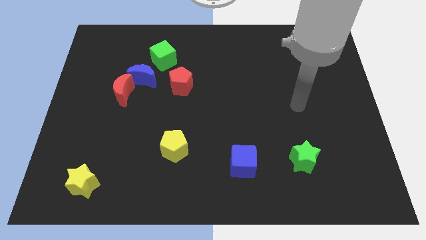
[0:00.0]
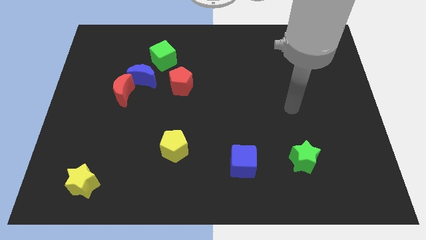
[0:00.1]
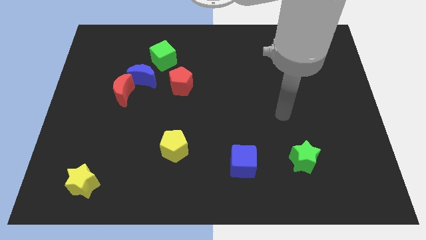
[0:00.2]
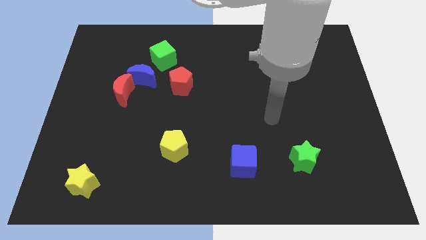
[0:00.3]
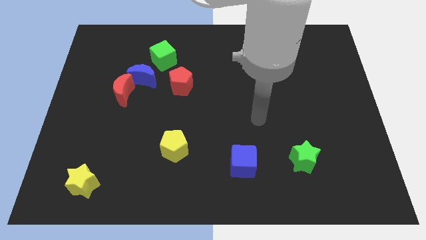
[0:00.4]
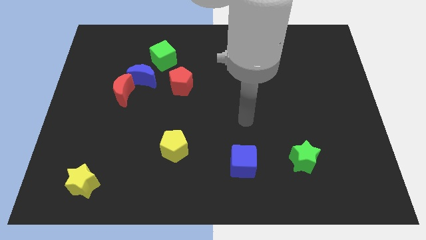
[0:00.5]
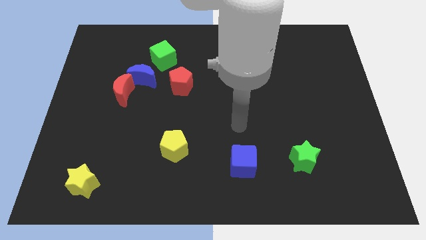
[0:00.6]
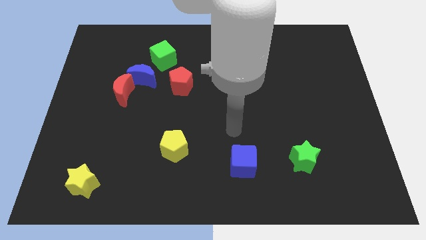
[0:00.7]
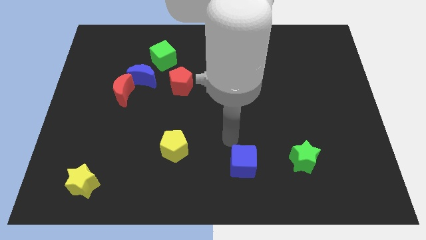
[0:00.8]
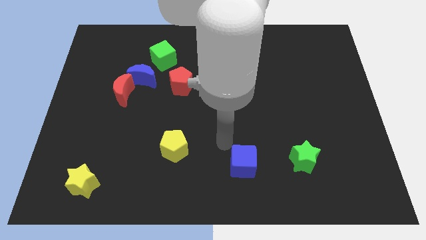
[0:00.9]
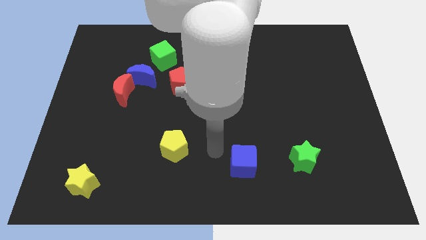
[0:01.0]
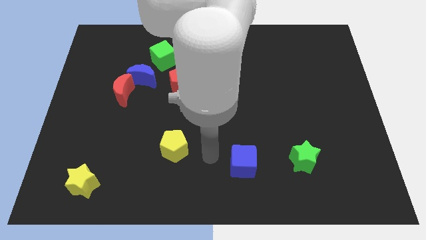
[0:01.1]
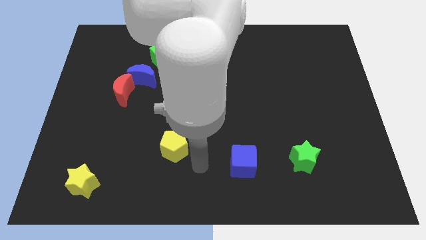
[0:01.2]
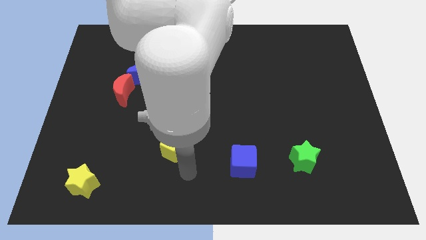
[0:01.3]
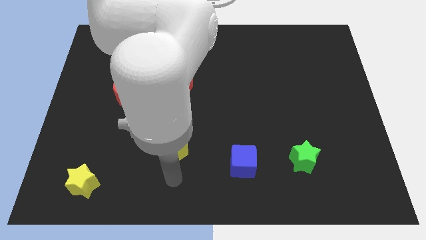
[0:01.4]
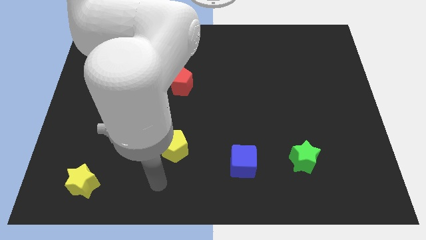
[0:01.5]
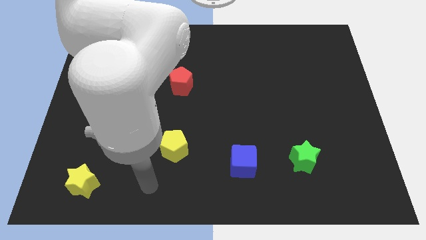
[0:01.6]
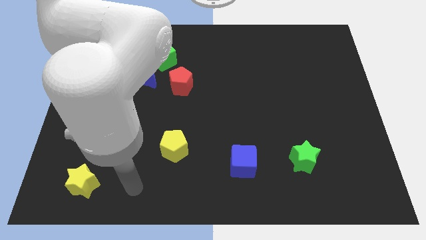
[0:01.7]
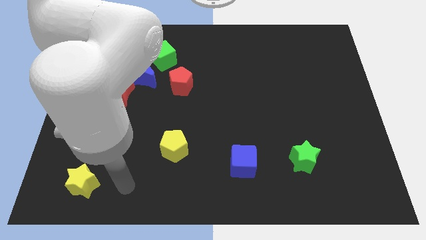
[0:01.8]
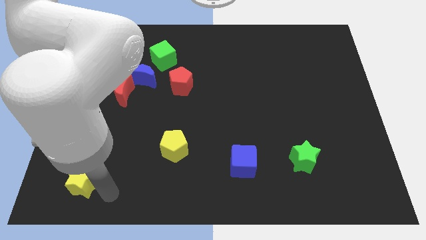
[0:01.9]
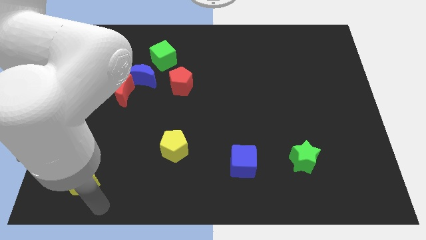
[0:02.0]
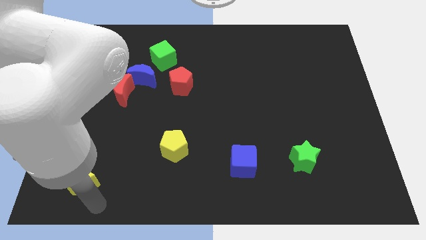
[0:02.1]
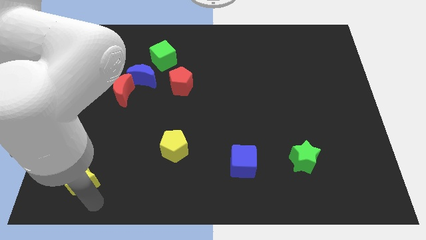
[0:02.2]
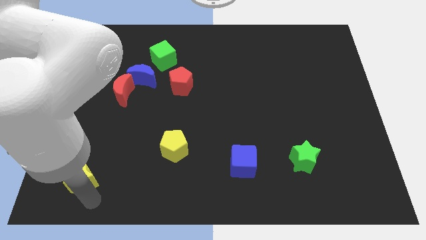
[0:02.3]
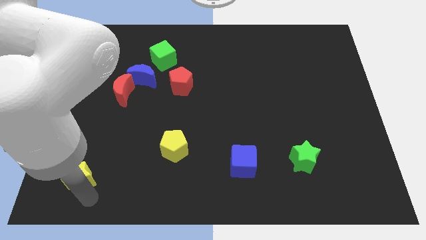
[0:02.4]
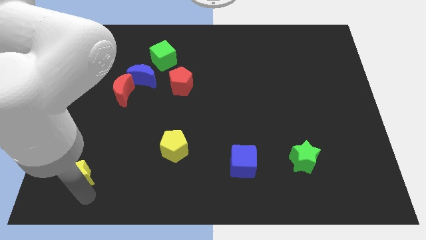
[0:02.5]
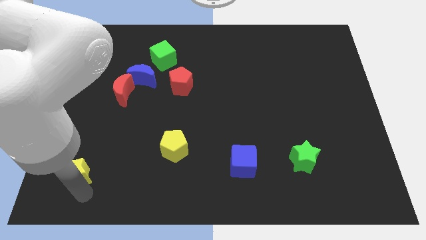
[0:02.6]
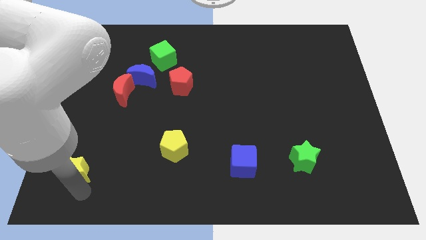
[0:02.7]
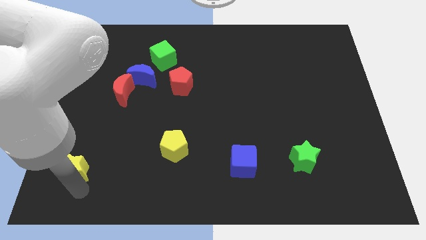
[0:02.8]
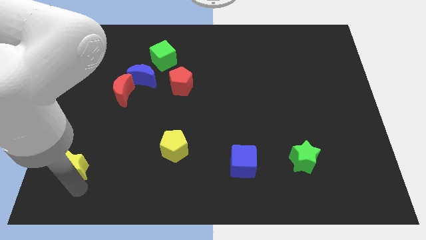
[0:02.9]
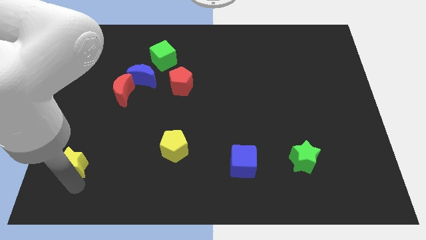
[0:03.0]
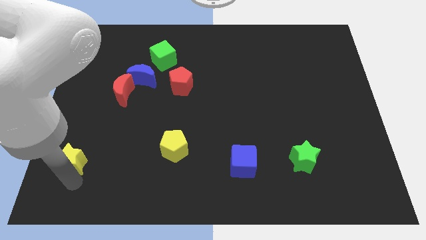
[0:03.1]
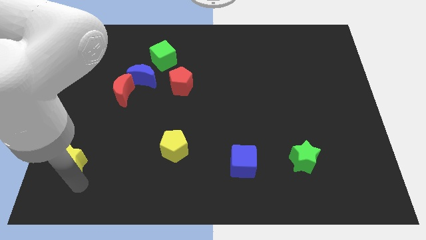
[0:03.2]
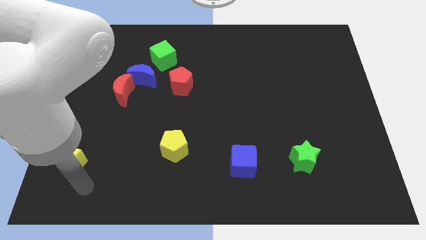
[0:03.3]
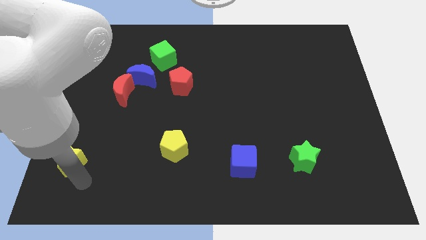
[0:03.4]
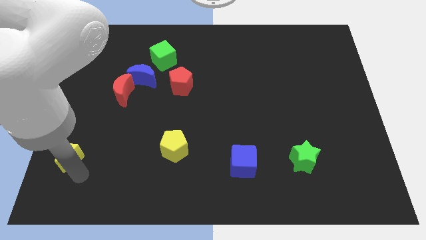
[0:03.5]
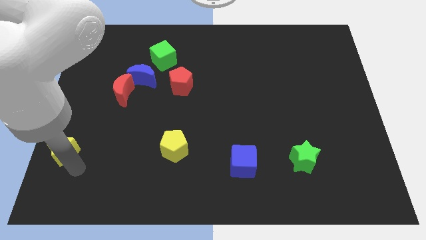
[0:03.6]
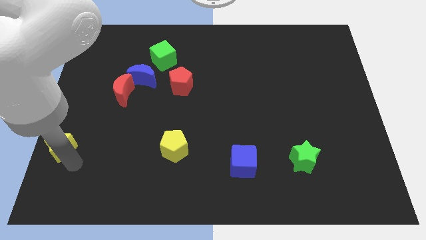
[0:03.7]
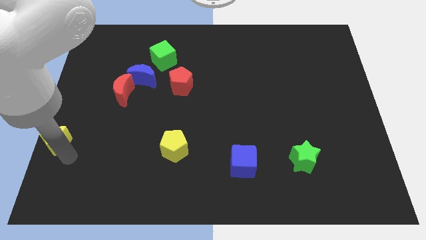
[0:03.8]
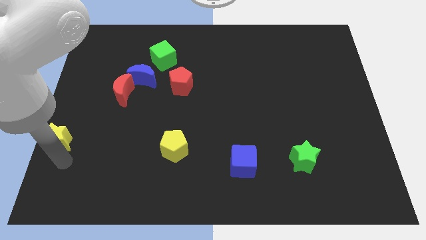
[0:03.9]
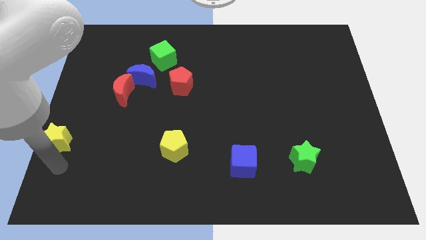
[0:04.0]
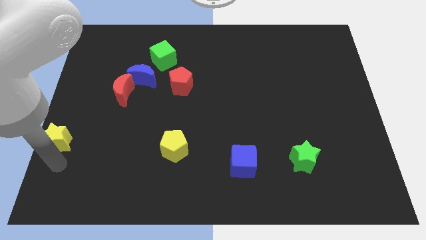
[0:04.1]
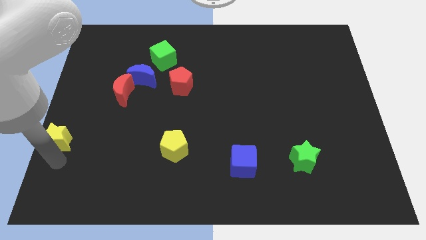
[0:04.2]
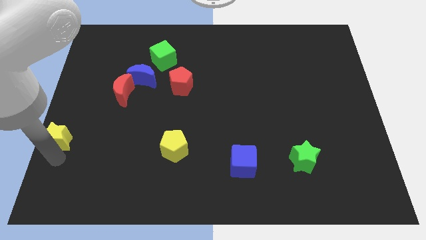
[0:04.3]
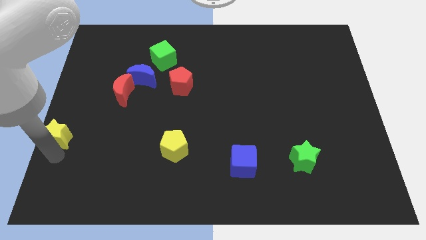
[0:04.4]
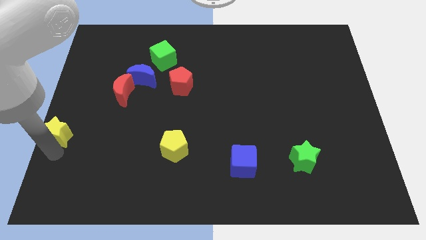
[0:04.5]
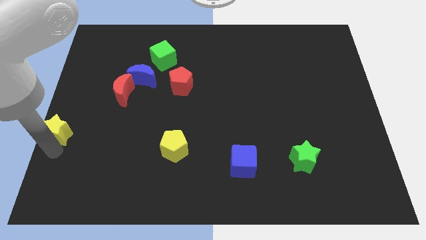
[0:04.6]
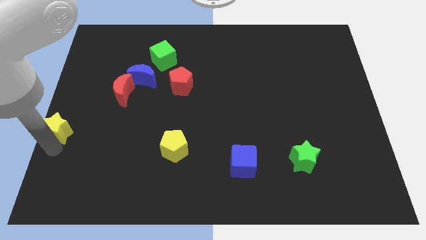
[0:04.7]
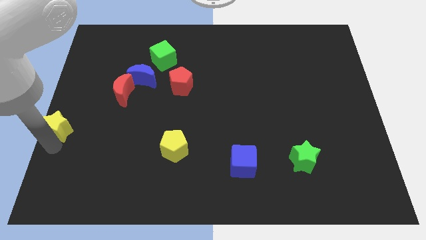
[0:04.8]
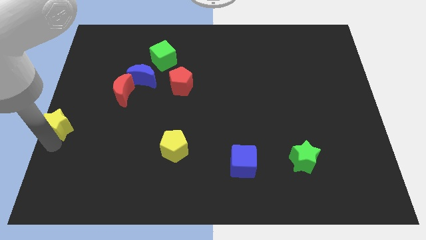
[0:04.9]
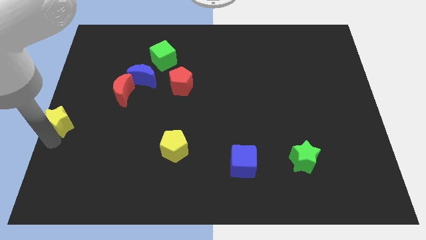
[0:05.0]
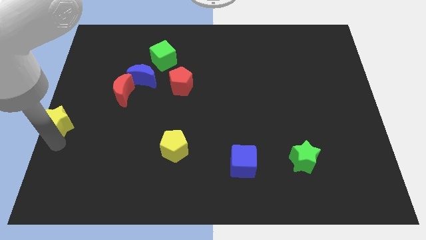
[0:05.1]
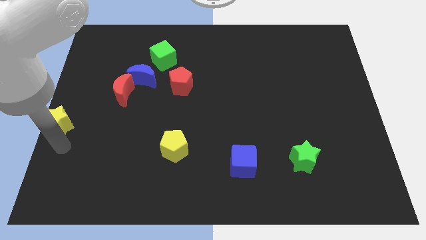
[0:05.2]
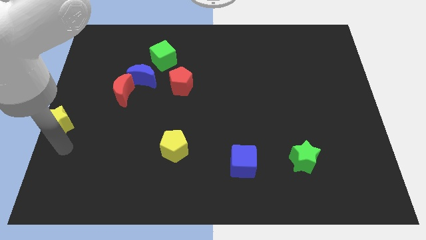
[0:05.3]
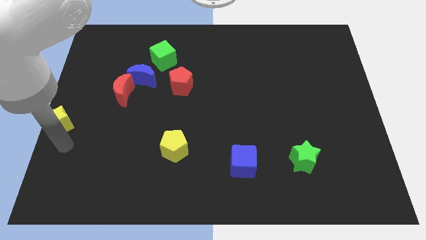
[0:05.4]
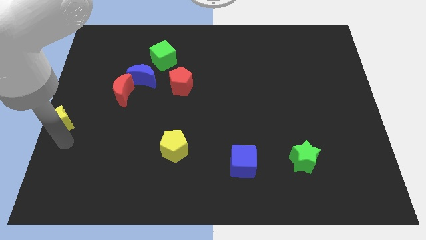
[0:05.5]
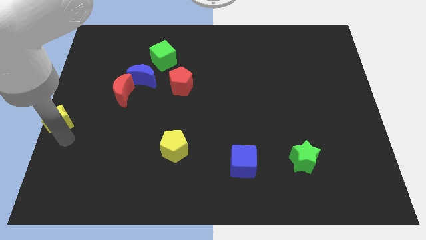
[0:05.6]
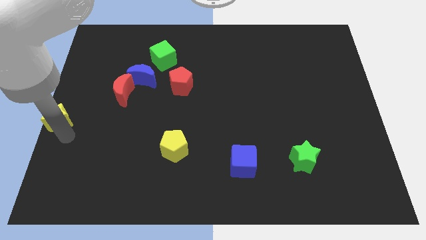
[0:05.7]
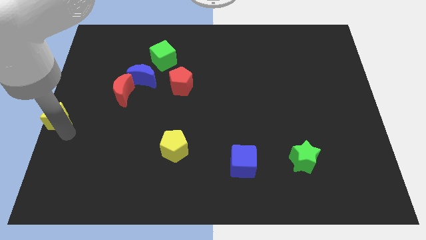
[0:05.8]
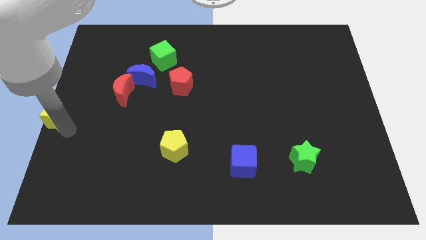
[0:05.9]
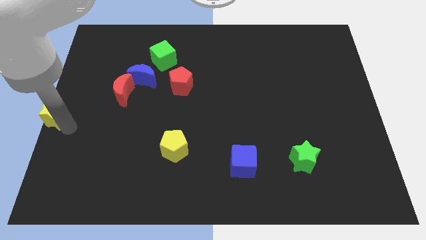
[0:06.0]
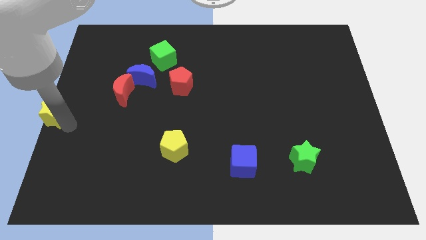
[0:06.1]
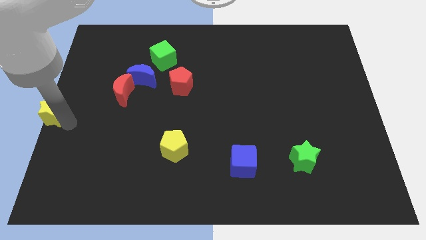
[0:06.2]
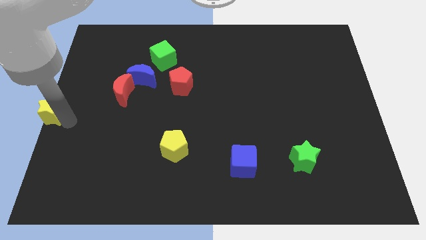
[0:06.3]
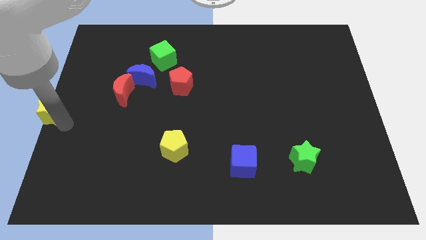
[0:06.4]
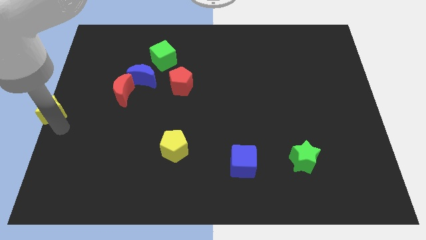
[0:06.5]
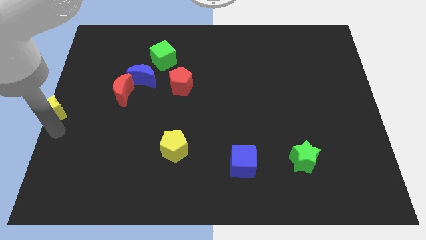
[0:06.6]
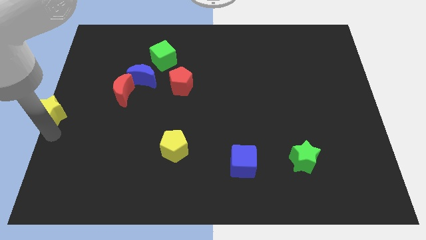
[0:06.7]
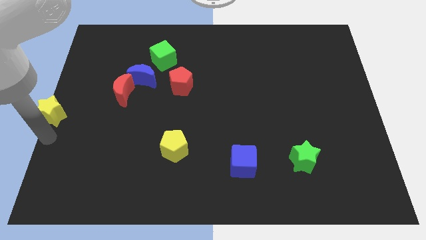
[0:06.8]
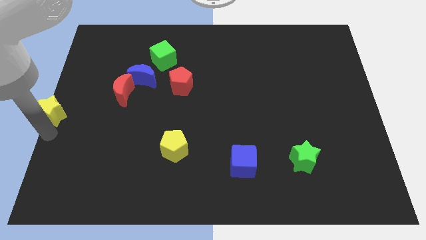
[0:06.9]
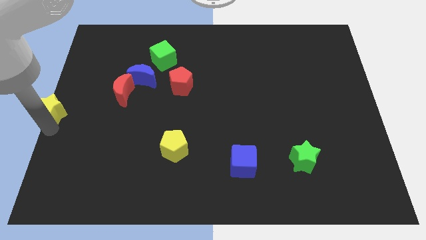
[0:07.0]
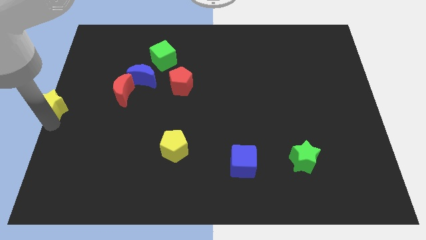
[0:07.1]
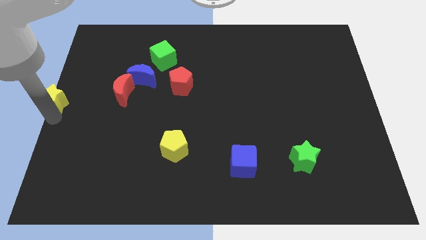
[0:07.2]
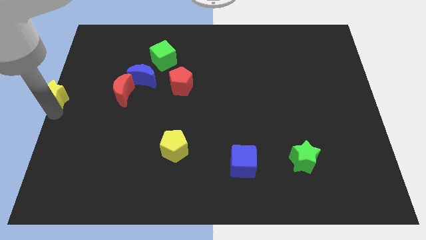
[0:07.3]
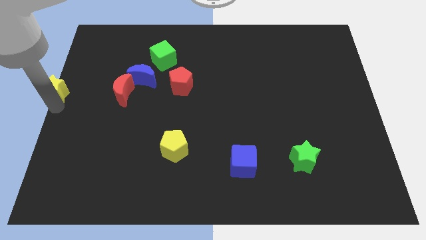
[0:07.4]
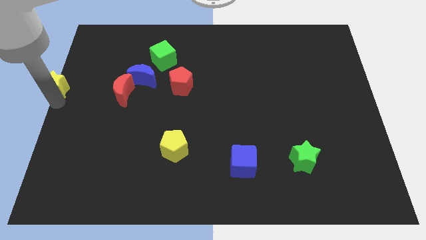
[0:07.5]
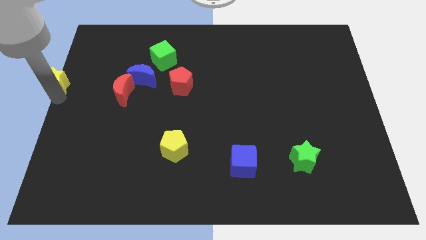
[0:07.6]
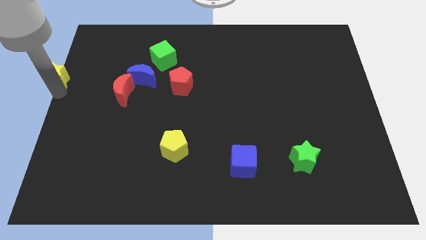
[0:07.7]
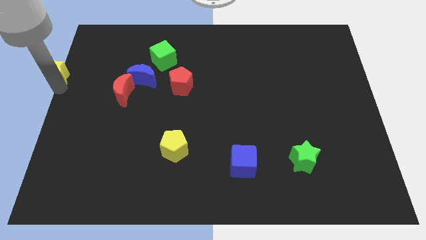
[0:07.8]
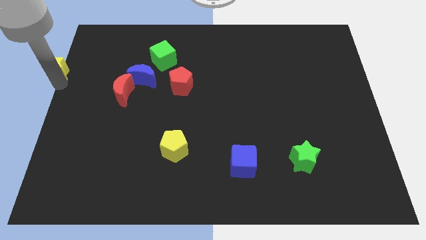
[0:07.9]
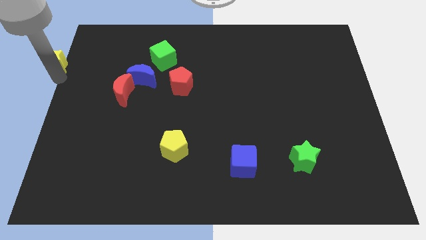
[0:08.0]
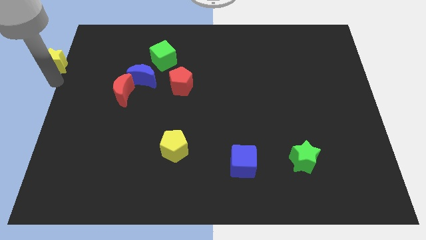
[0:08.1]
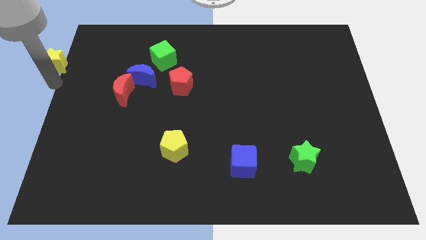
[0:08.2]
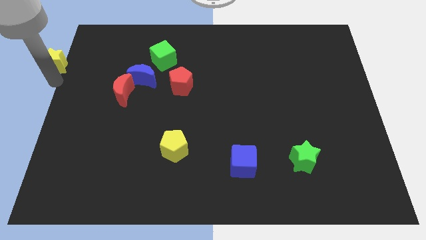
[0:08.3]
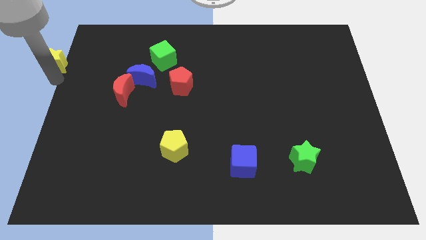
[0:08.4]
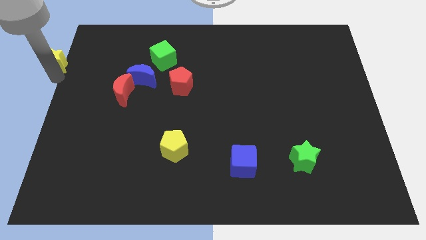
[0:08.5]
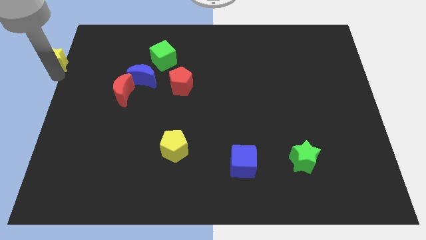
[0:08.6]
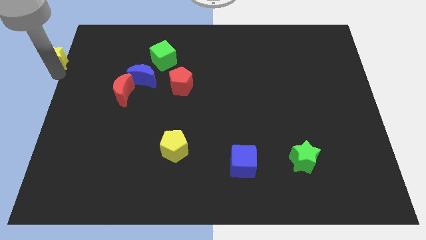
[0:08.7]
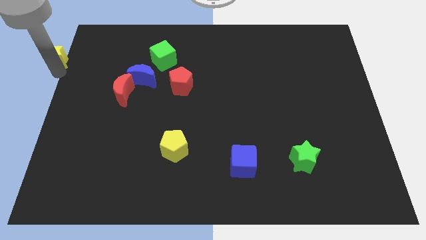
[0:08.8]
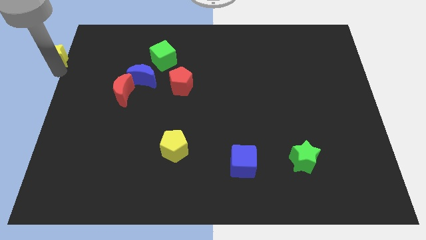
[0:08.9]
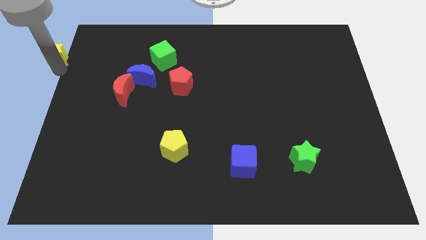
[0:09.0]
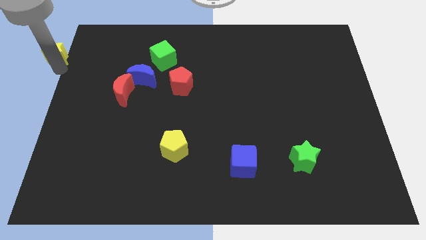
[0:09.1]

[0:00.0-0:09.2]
move the yellow star to the top left
